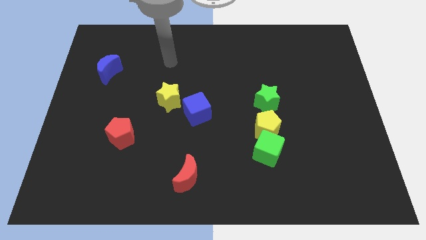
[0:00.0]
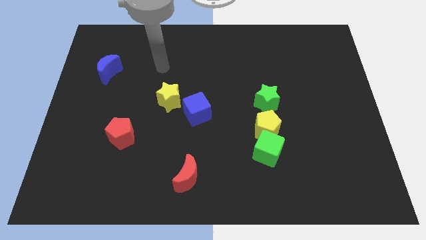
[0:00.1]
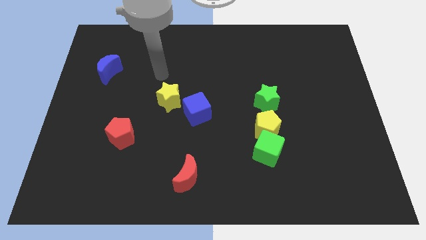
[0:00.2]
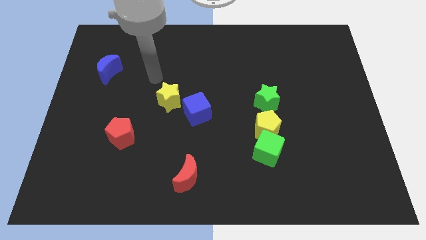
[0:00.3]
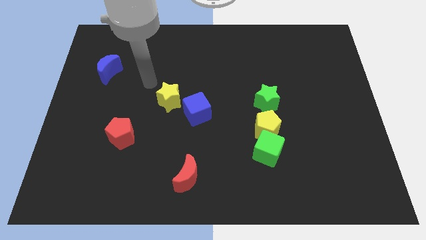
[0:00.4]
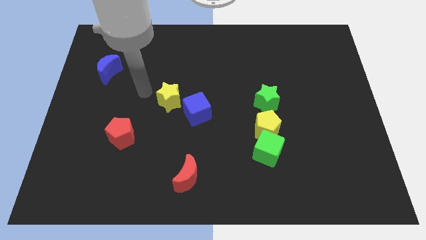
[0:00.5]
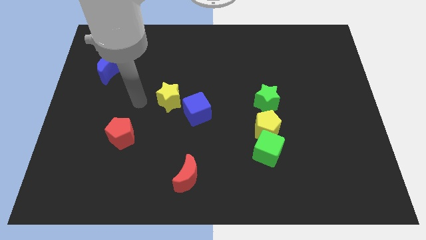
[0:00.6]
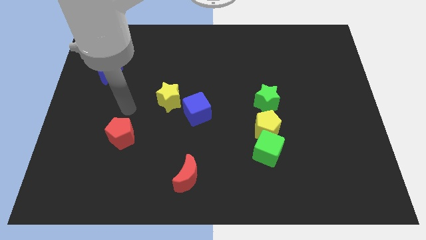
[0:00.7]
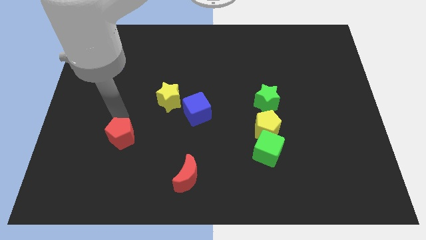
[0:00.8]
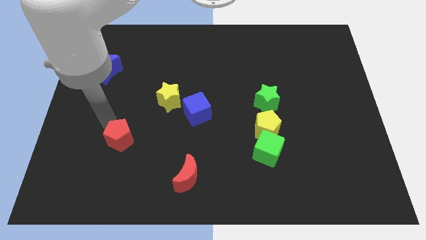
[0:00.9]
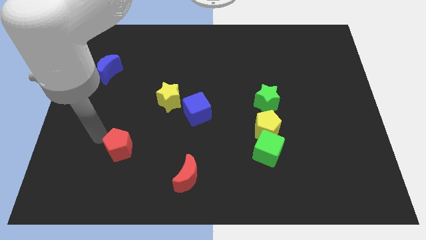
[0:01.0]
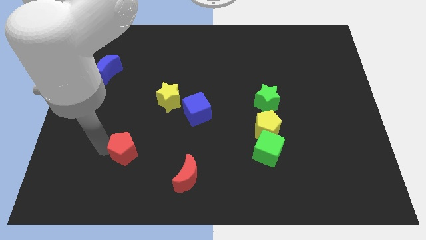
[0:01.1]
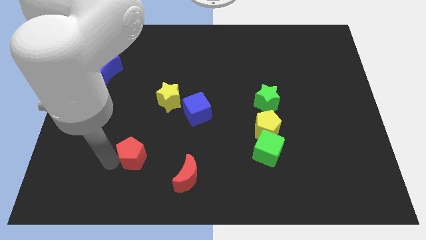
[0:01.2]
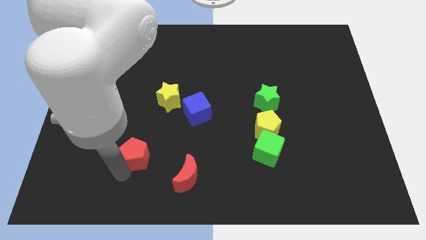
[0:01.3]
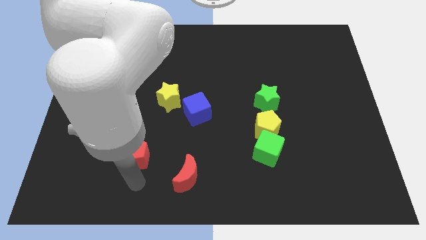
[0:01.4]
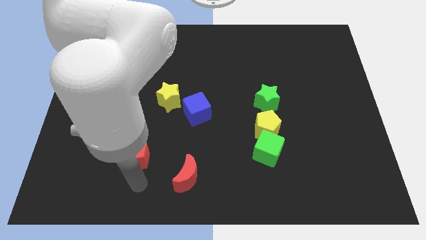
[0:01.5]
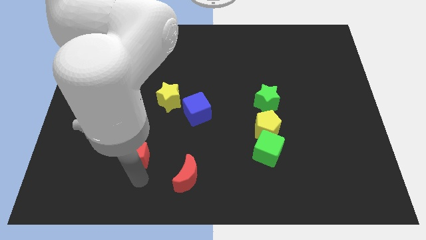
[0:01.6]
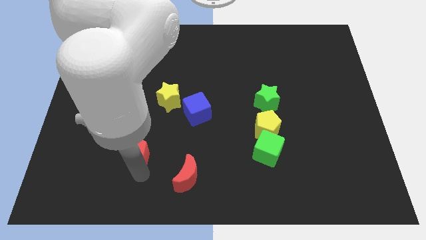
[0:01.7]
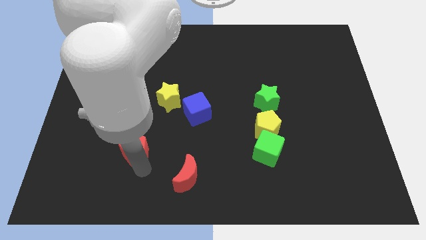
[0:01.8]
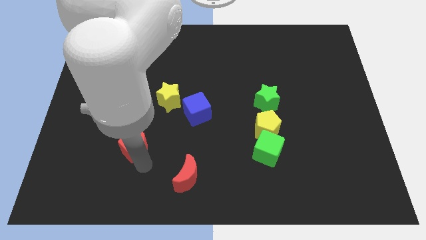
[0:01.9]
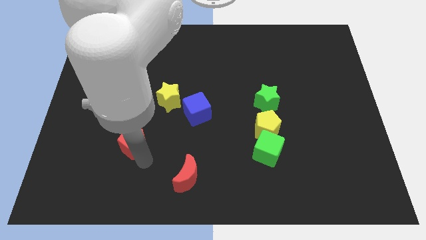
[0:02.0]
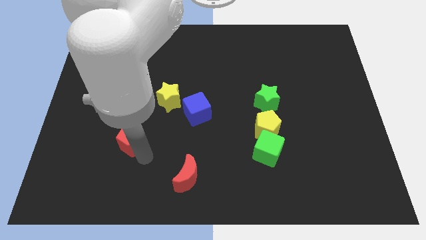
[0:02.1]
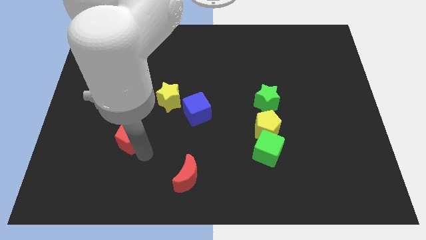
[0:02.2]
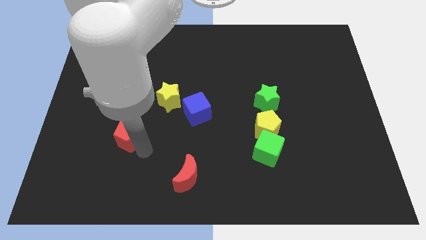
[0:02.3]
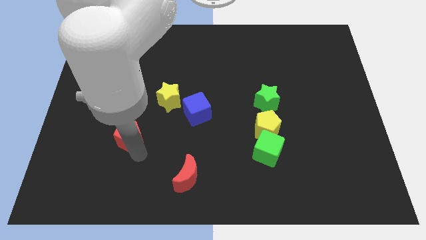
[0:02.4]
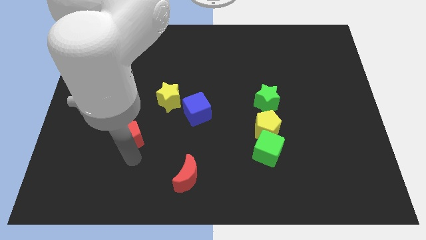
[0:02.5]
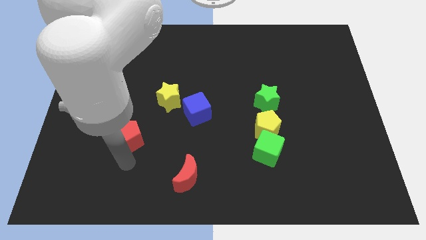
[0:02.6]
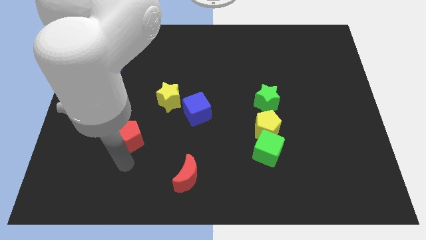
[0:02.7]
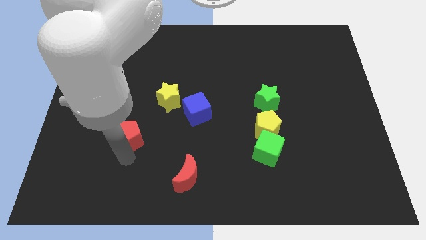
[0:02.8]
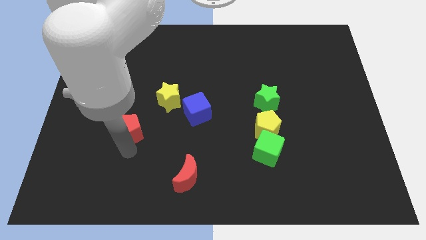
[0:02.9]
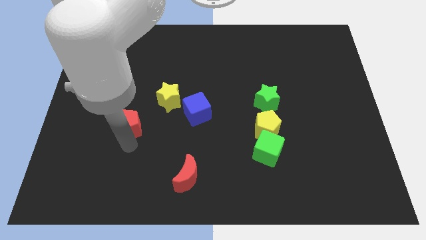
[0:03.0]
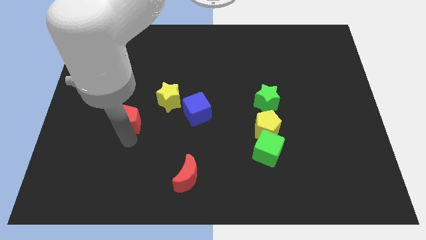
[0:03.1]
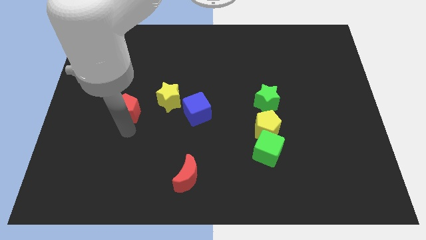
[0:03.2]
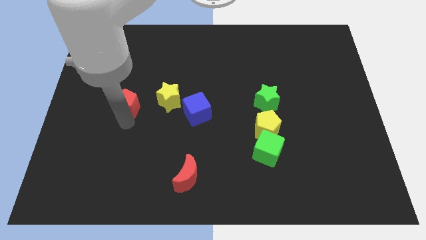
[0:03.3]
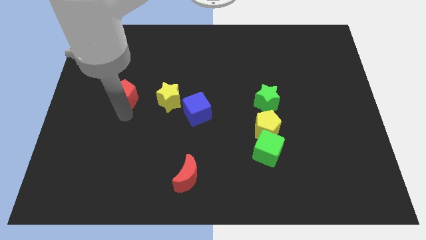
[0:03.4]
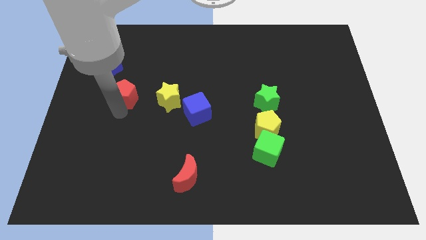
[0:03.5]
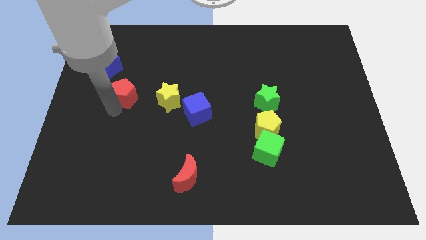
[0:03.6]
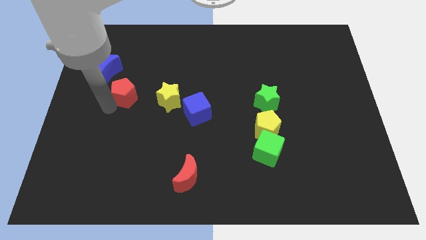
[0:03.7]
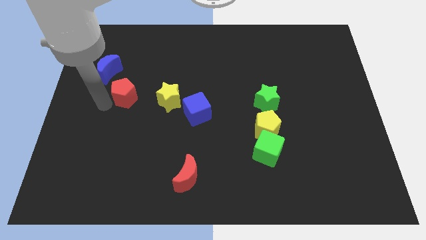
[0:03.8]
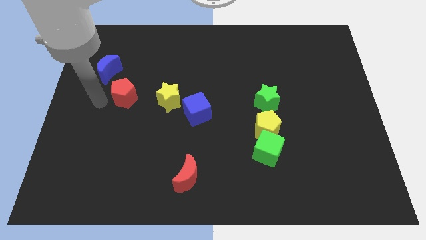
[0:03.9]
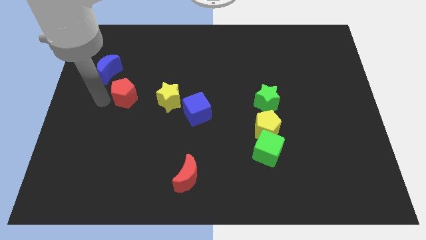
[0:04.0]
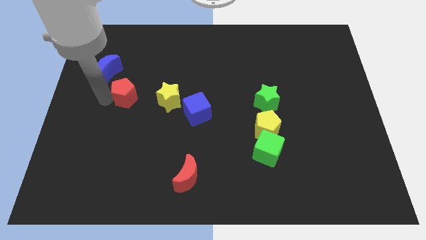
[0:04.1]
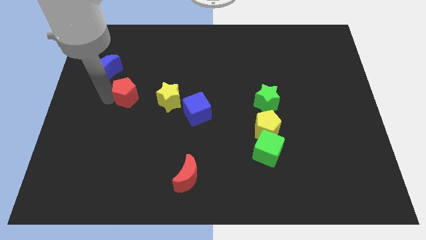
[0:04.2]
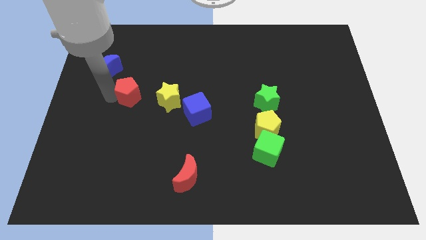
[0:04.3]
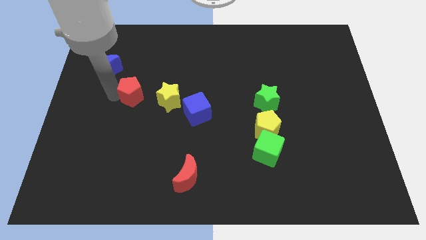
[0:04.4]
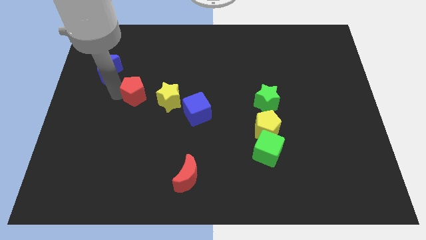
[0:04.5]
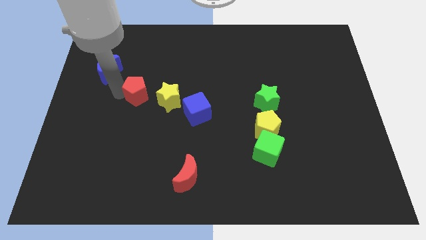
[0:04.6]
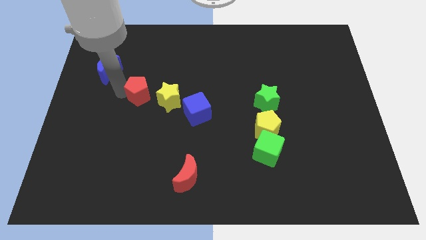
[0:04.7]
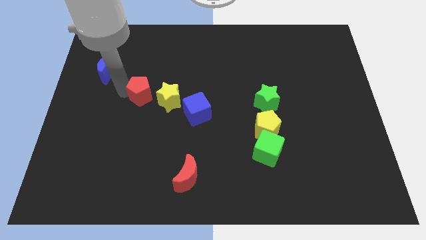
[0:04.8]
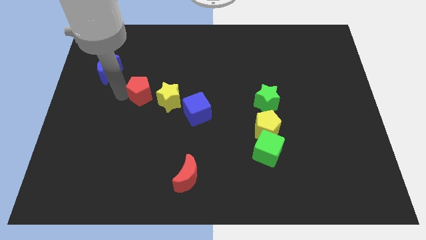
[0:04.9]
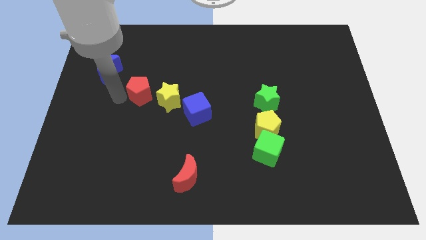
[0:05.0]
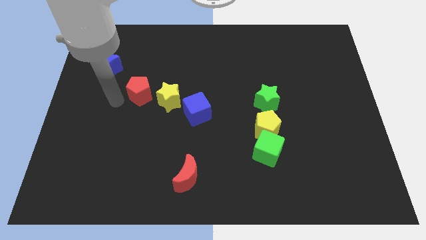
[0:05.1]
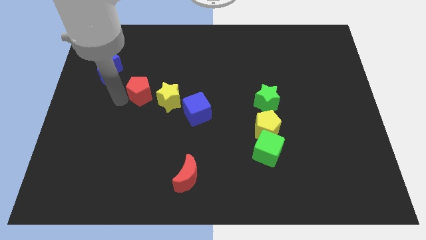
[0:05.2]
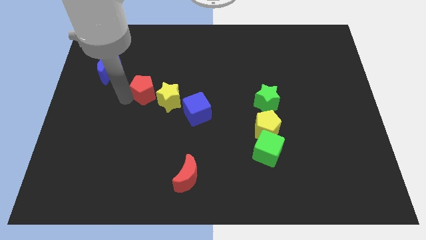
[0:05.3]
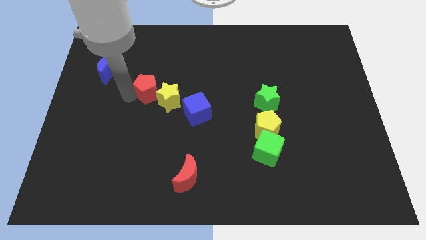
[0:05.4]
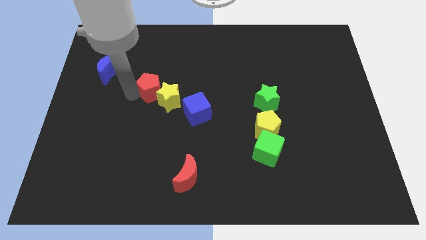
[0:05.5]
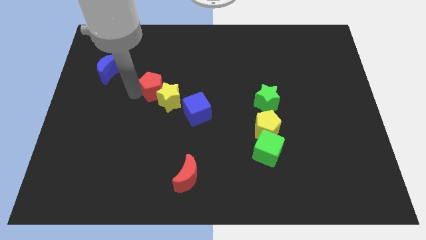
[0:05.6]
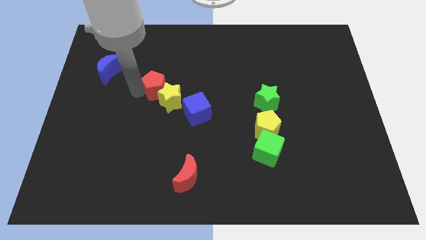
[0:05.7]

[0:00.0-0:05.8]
move the red pentagon to the top left side of the blue cube

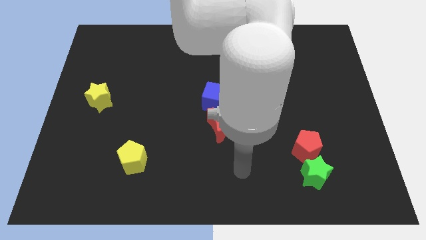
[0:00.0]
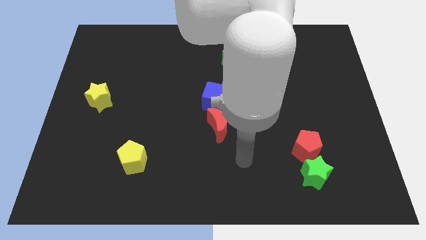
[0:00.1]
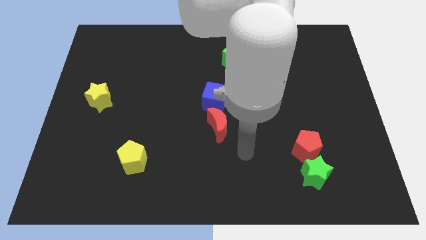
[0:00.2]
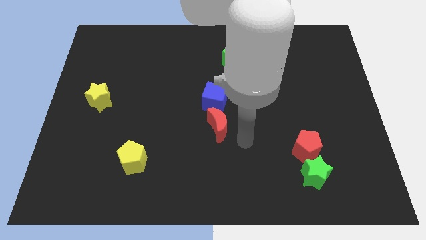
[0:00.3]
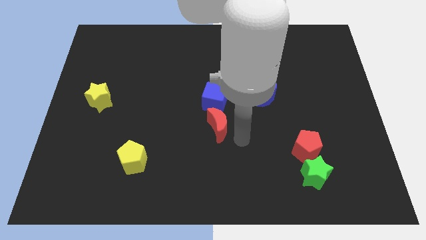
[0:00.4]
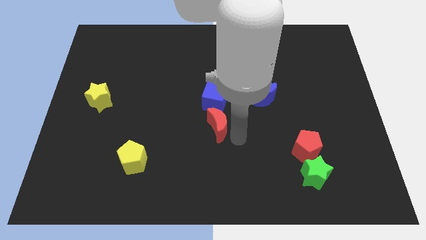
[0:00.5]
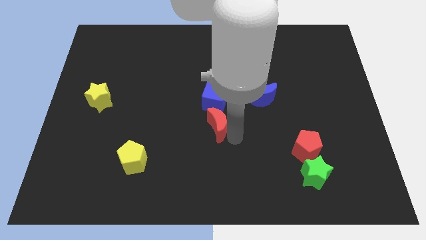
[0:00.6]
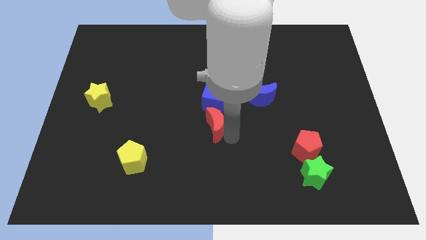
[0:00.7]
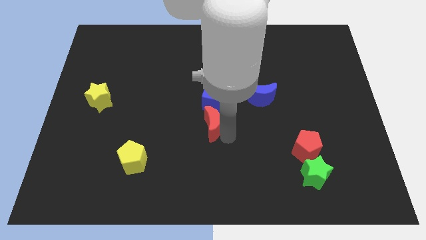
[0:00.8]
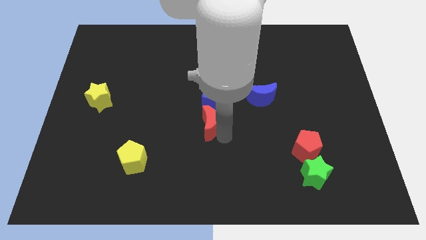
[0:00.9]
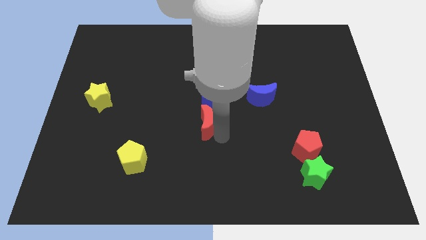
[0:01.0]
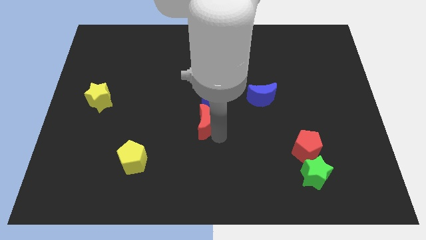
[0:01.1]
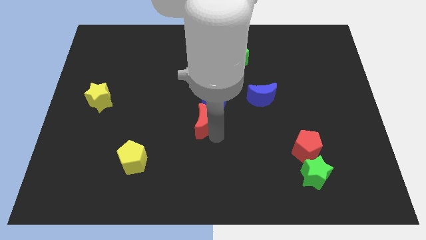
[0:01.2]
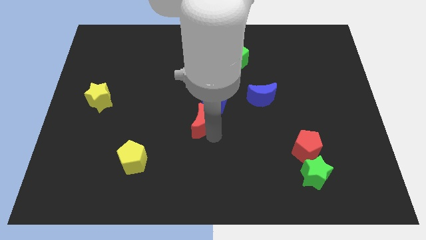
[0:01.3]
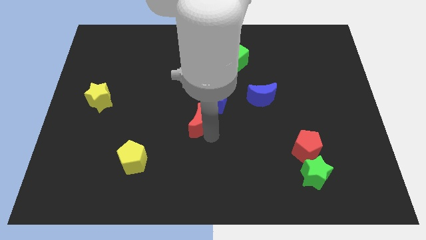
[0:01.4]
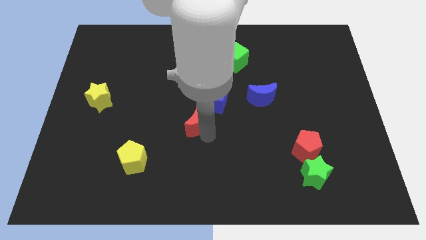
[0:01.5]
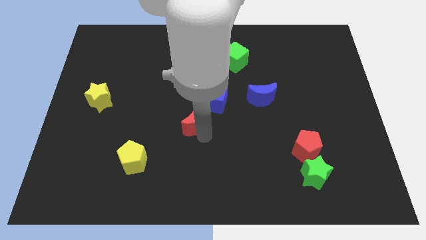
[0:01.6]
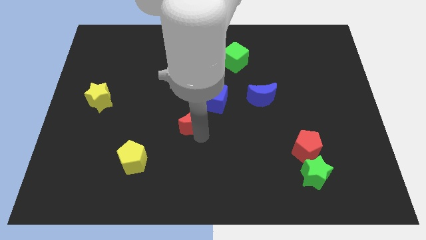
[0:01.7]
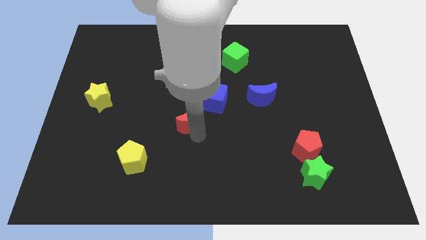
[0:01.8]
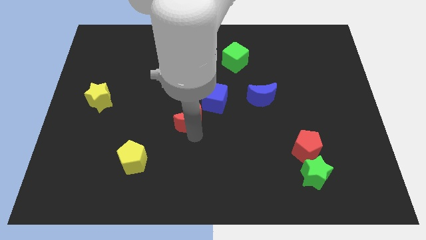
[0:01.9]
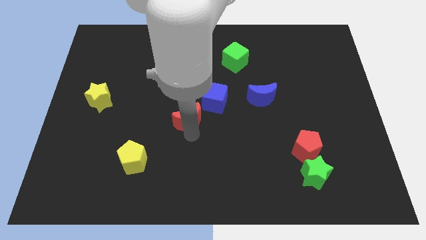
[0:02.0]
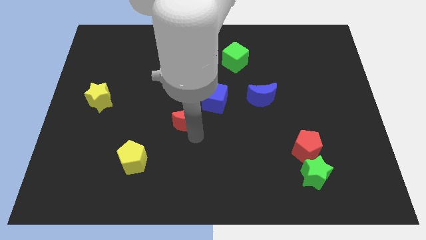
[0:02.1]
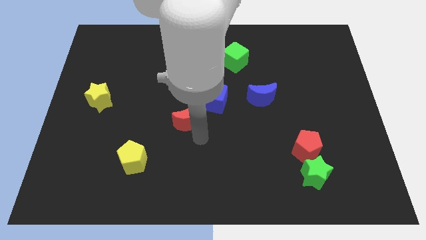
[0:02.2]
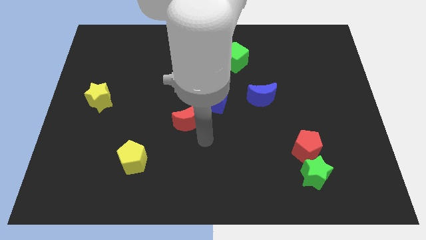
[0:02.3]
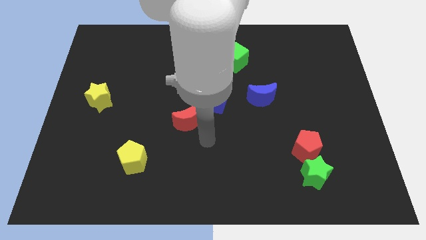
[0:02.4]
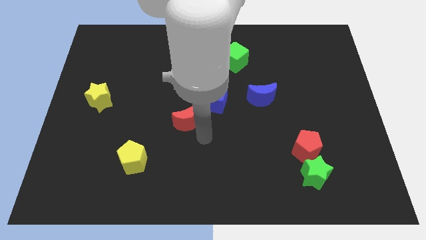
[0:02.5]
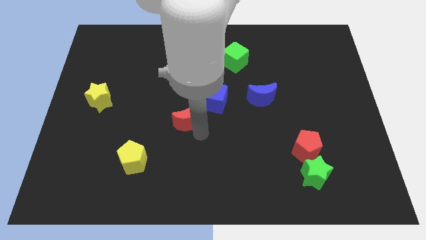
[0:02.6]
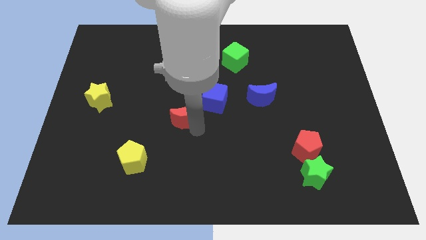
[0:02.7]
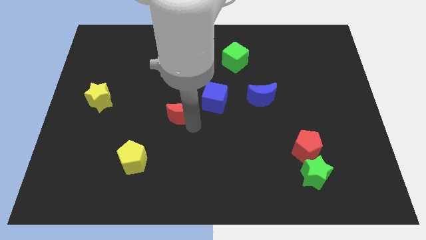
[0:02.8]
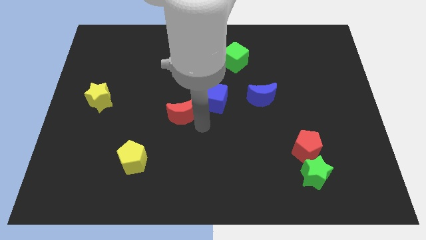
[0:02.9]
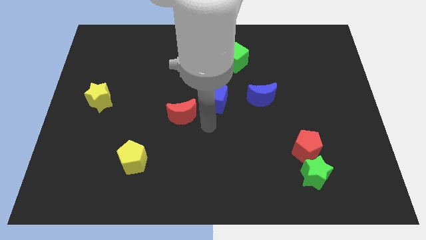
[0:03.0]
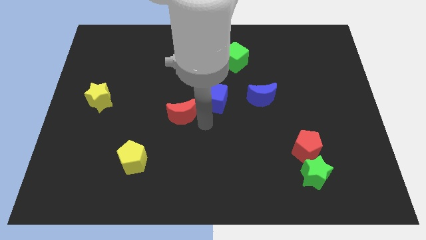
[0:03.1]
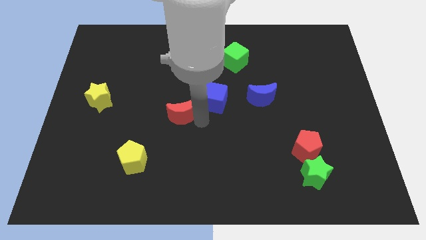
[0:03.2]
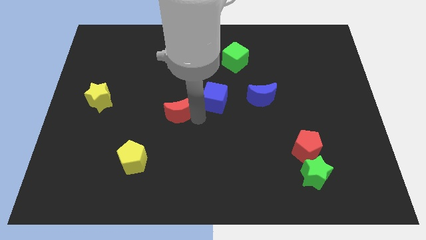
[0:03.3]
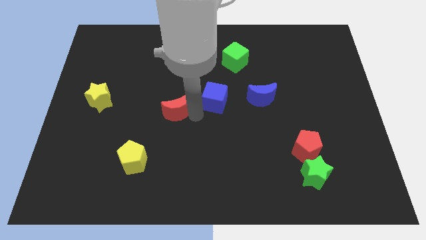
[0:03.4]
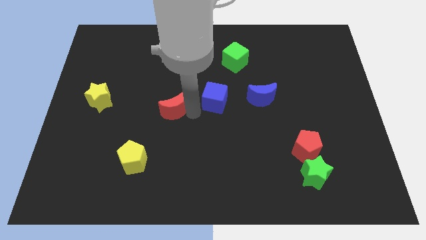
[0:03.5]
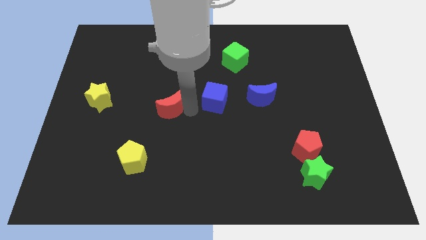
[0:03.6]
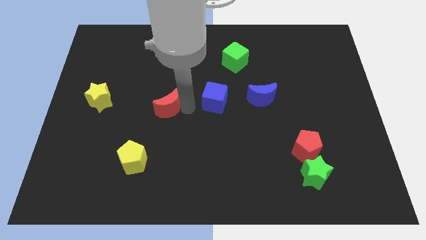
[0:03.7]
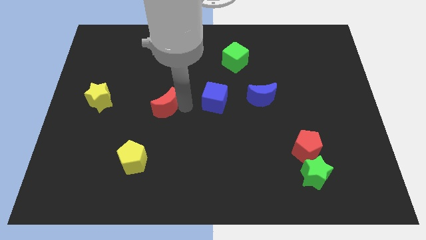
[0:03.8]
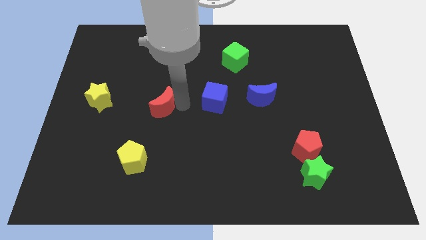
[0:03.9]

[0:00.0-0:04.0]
slide the red moon to the right of the yellow star
